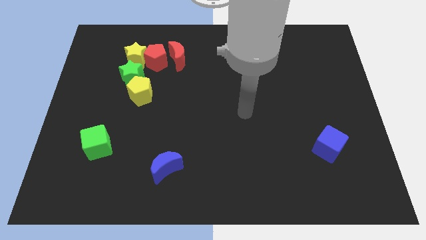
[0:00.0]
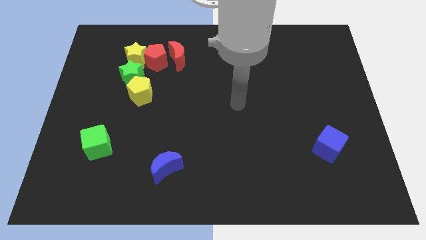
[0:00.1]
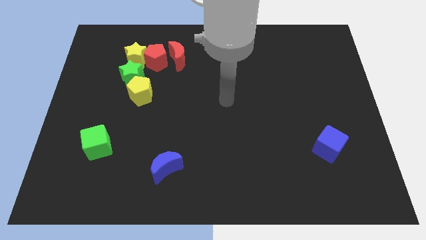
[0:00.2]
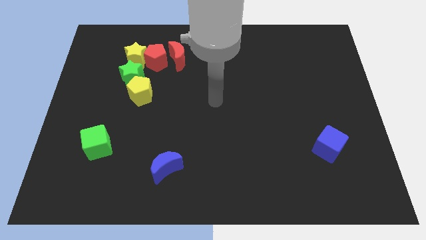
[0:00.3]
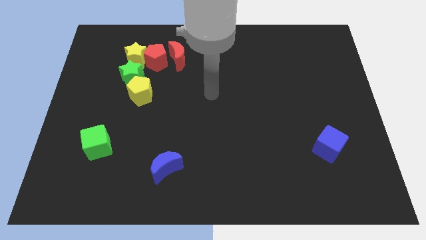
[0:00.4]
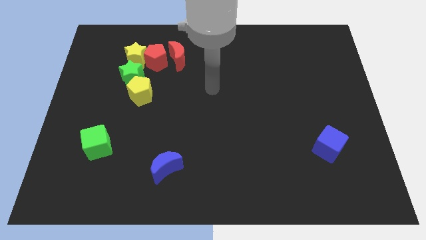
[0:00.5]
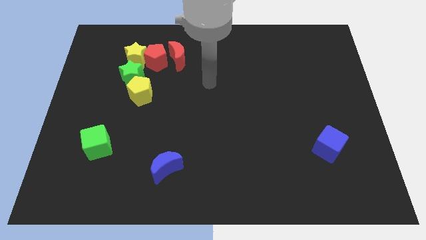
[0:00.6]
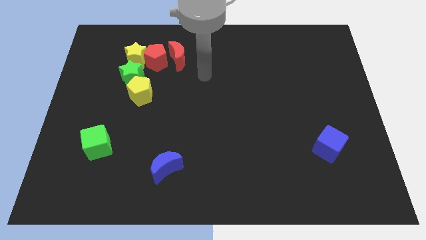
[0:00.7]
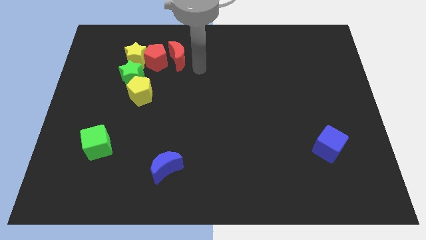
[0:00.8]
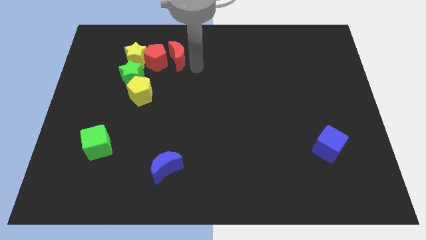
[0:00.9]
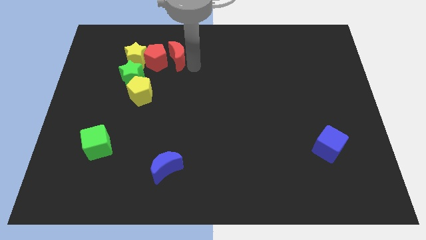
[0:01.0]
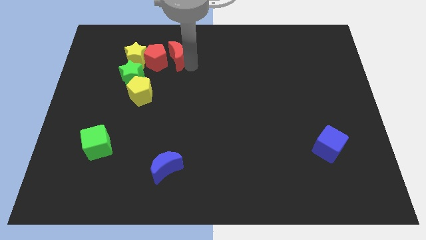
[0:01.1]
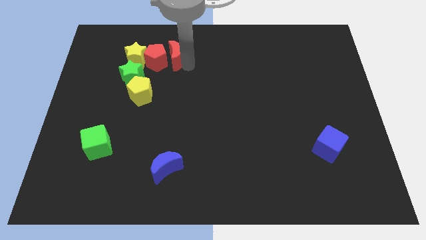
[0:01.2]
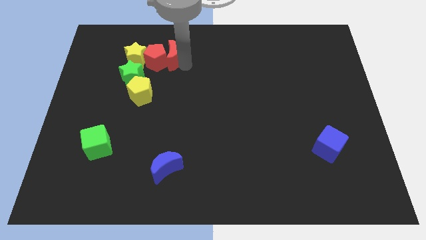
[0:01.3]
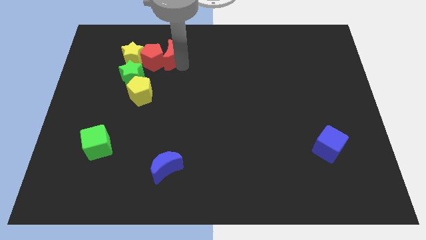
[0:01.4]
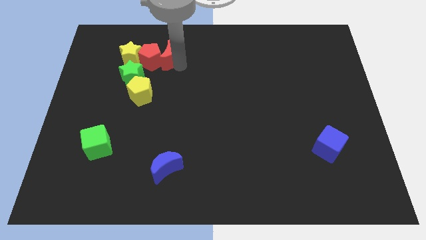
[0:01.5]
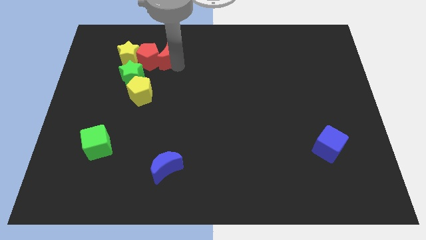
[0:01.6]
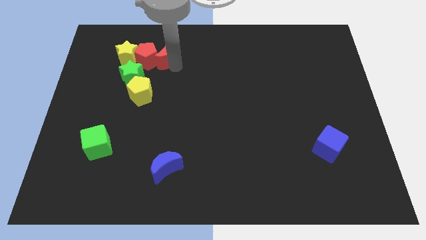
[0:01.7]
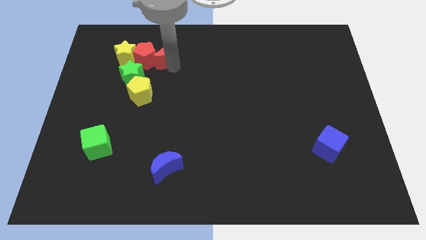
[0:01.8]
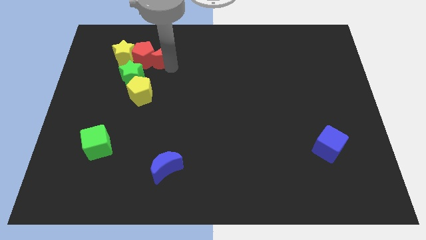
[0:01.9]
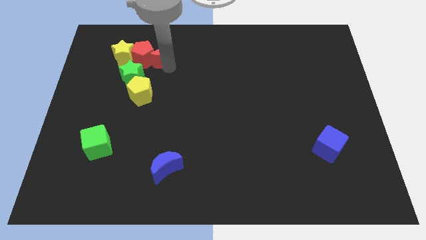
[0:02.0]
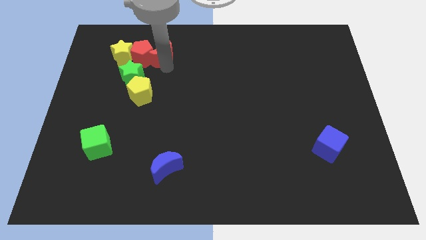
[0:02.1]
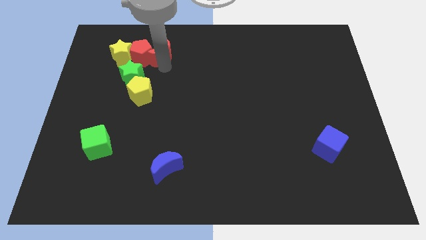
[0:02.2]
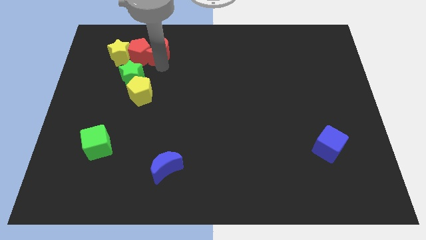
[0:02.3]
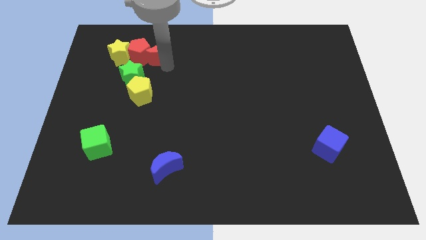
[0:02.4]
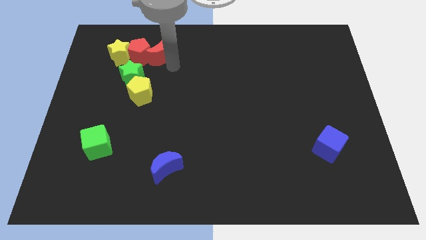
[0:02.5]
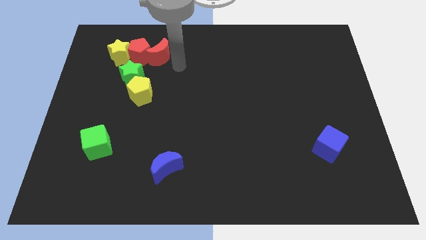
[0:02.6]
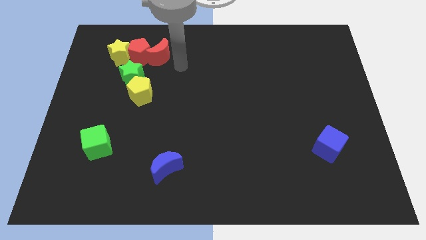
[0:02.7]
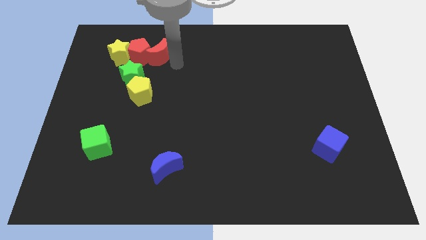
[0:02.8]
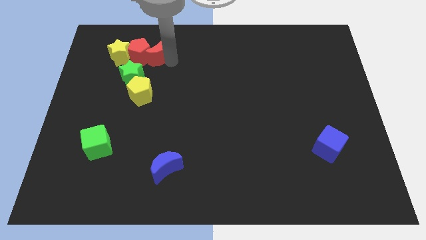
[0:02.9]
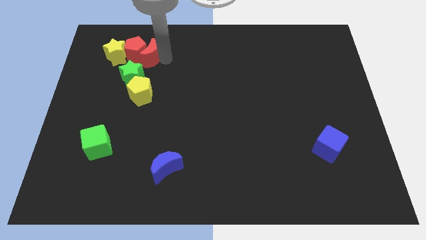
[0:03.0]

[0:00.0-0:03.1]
slide the red moon to the left a little

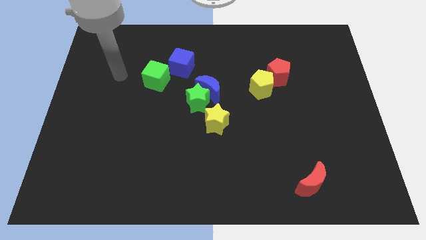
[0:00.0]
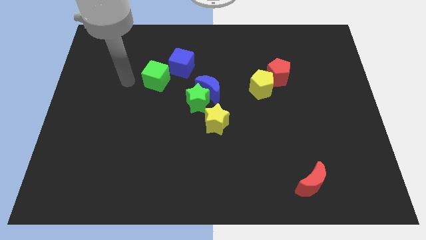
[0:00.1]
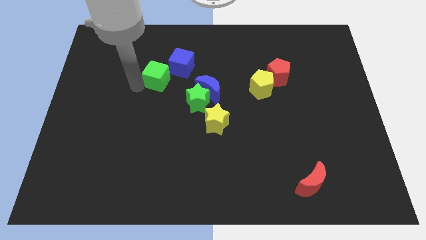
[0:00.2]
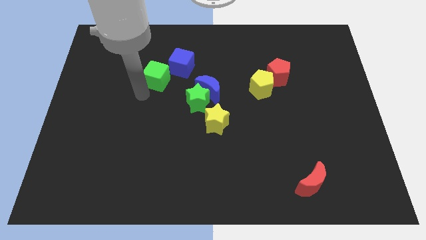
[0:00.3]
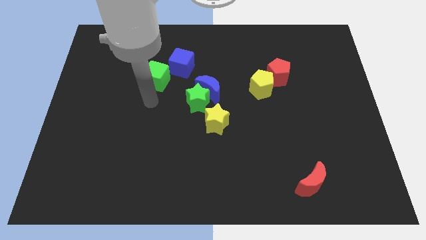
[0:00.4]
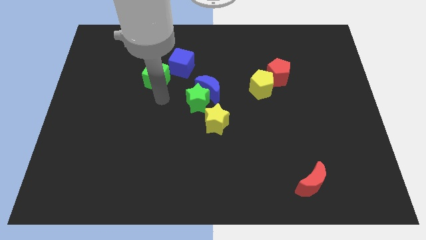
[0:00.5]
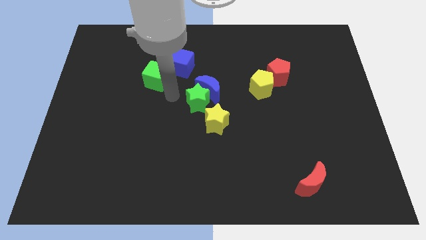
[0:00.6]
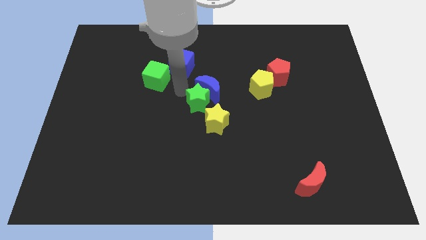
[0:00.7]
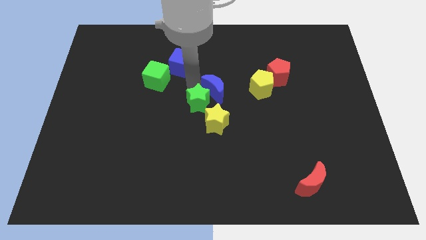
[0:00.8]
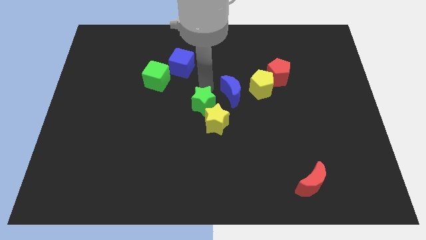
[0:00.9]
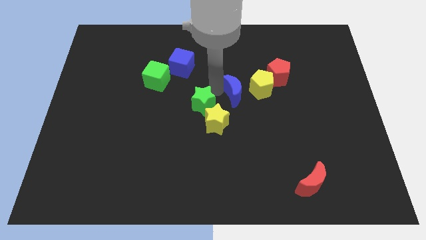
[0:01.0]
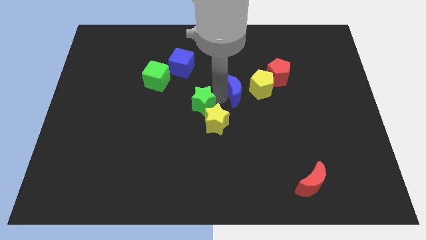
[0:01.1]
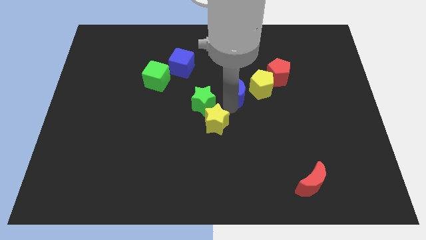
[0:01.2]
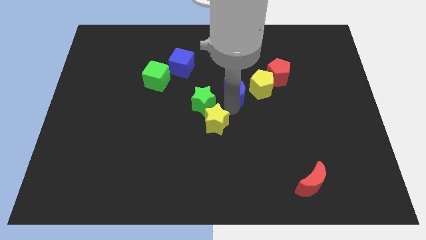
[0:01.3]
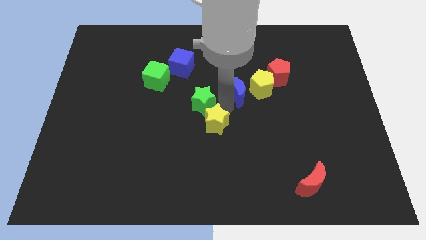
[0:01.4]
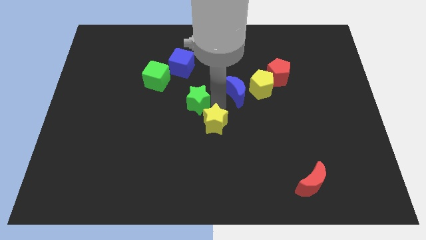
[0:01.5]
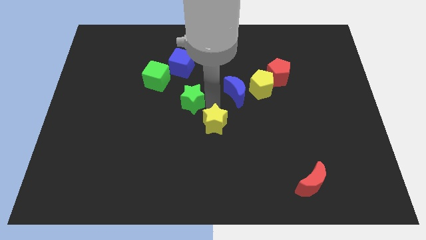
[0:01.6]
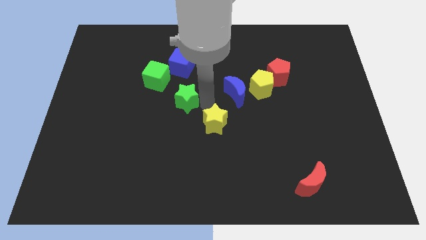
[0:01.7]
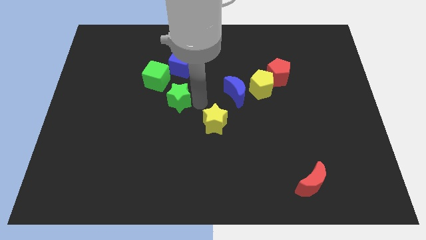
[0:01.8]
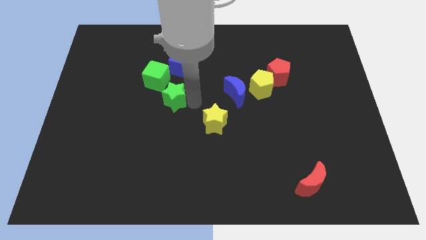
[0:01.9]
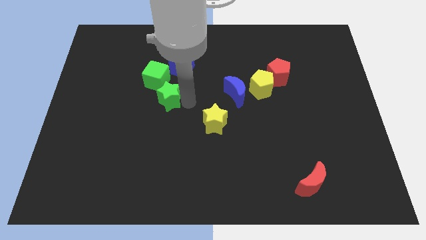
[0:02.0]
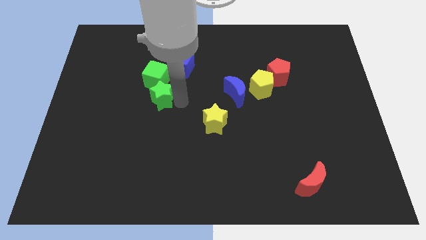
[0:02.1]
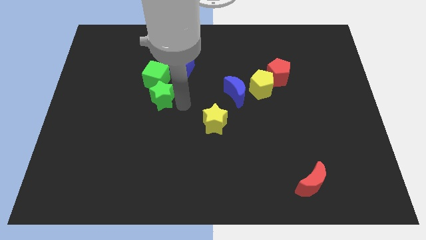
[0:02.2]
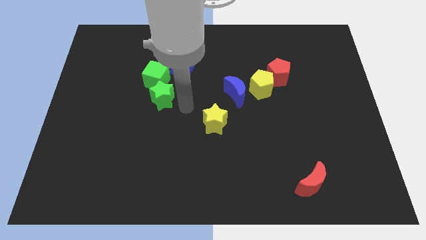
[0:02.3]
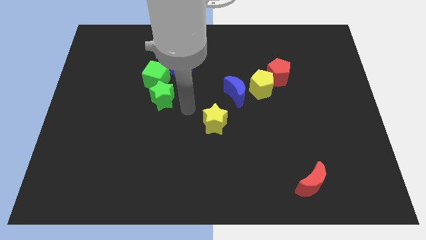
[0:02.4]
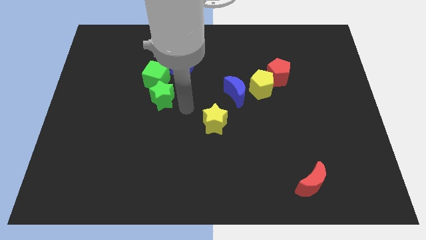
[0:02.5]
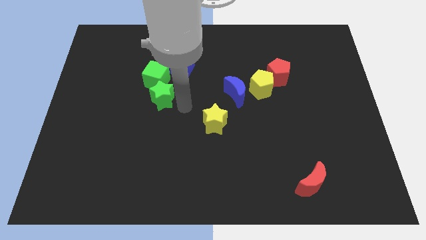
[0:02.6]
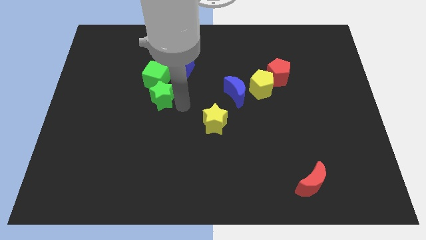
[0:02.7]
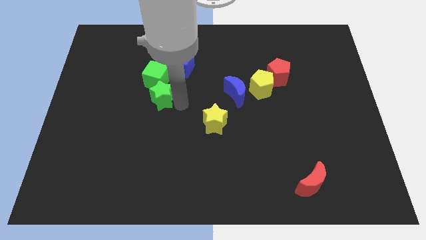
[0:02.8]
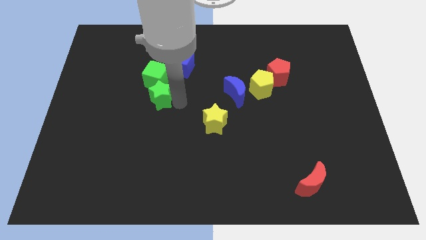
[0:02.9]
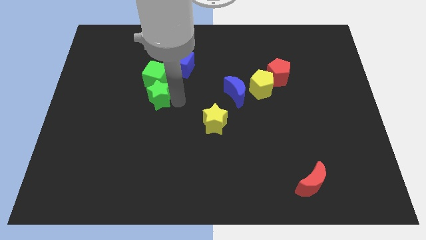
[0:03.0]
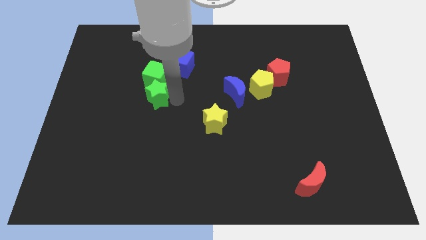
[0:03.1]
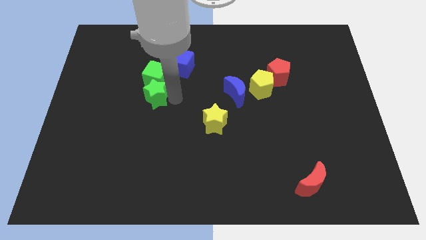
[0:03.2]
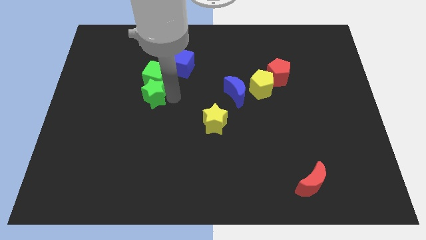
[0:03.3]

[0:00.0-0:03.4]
slide the green star a little bit up and to the left diagonally

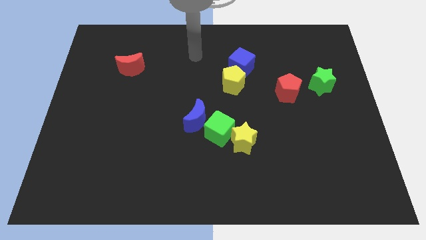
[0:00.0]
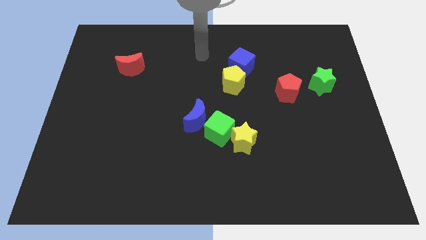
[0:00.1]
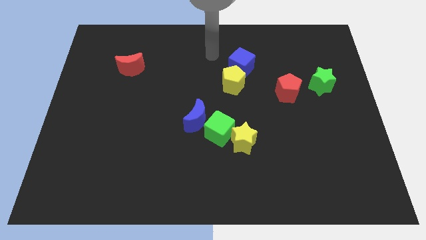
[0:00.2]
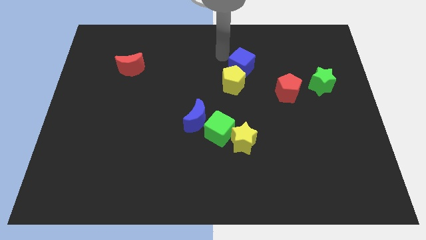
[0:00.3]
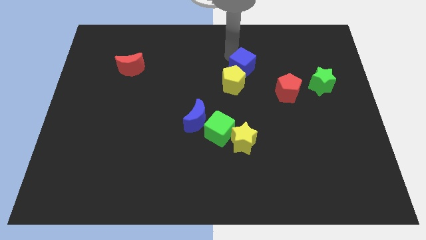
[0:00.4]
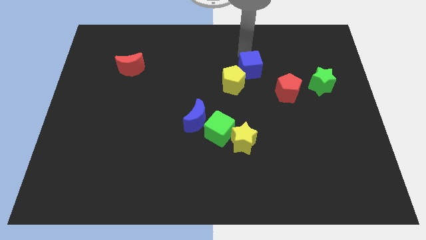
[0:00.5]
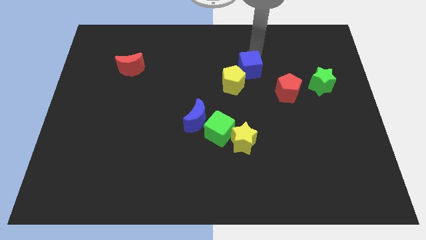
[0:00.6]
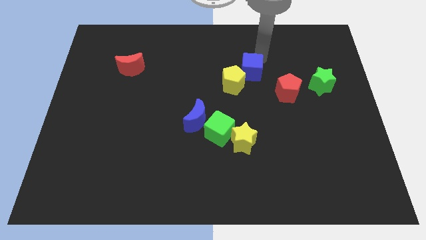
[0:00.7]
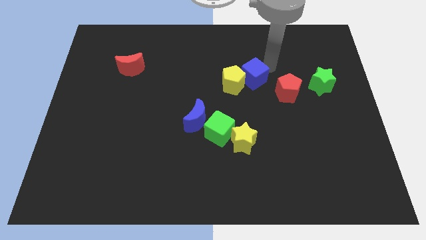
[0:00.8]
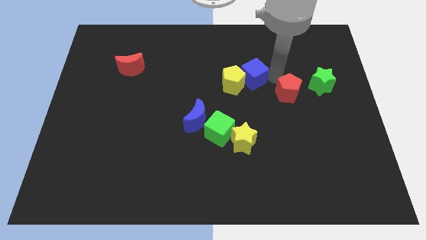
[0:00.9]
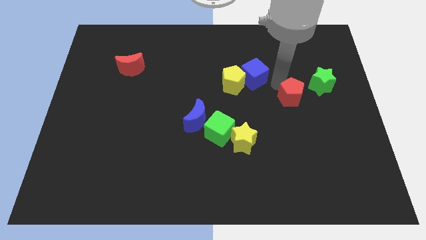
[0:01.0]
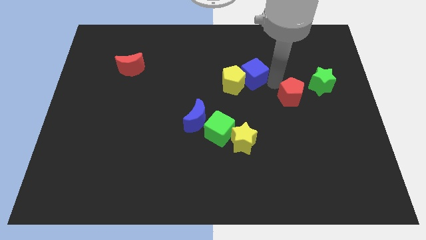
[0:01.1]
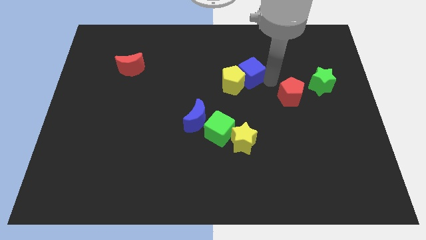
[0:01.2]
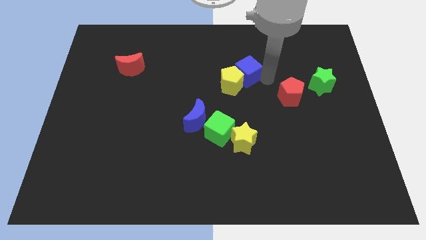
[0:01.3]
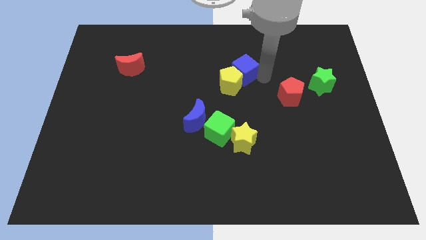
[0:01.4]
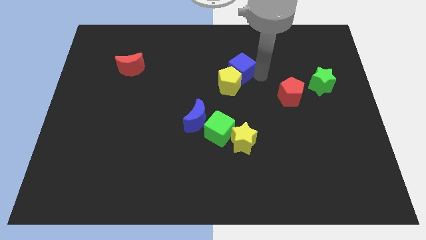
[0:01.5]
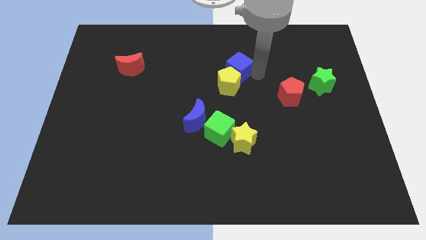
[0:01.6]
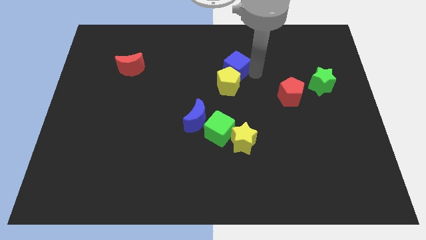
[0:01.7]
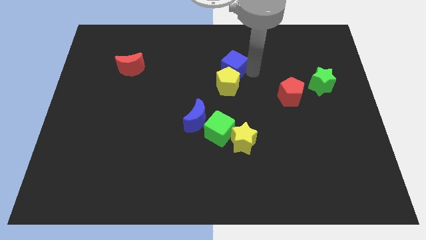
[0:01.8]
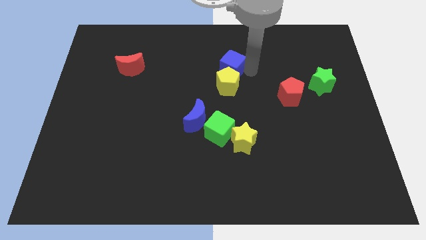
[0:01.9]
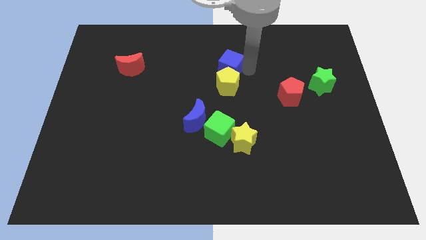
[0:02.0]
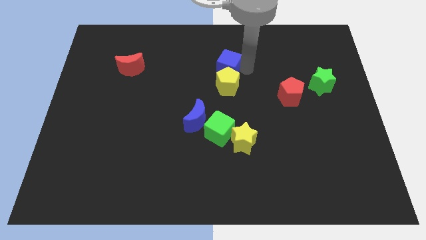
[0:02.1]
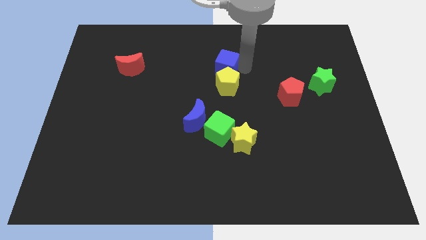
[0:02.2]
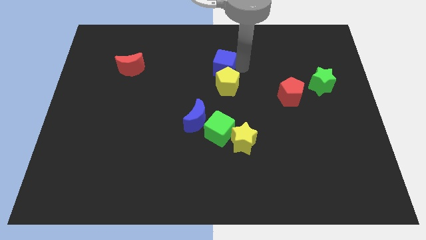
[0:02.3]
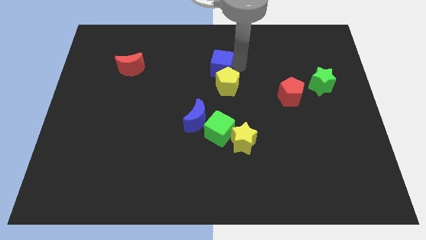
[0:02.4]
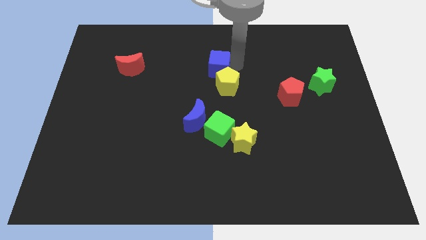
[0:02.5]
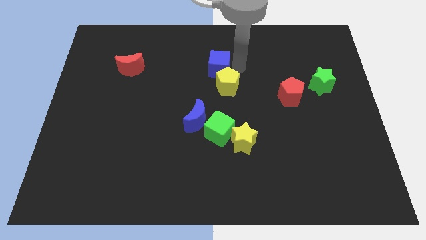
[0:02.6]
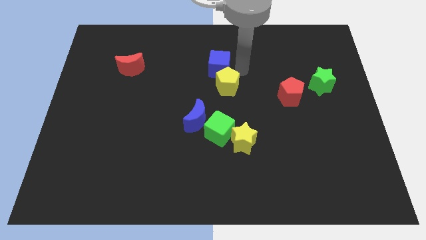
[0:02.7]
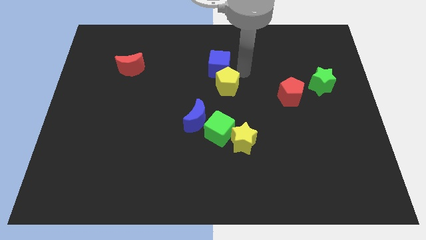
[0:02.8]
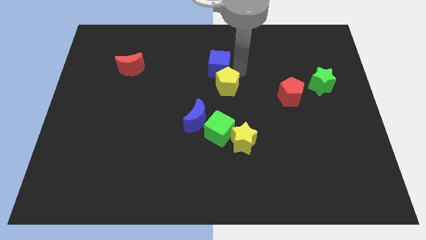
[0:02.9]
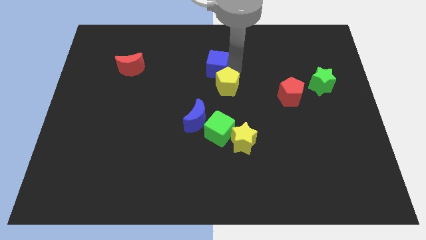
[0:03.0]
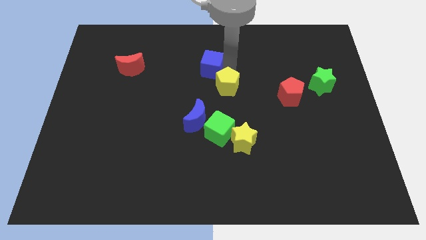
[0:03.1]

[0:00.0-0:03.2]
slide the blue cube slightly left
